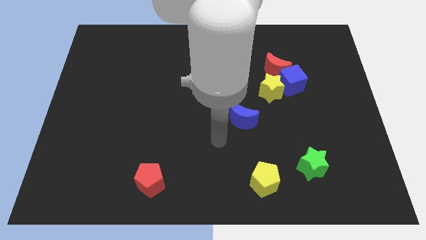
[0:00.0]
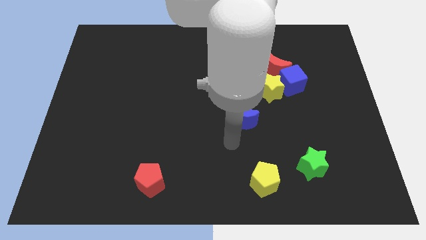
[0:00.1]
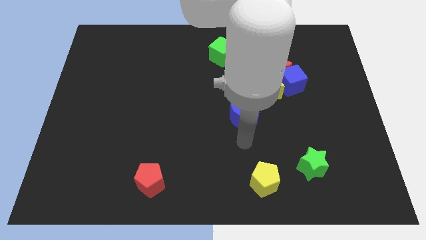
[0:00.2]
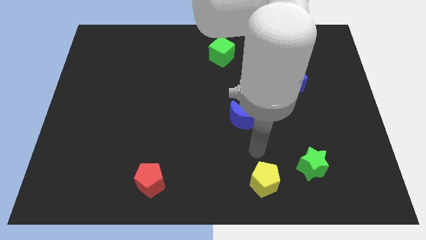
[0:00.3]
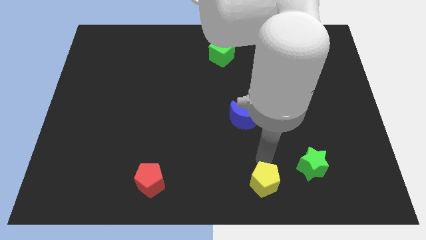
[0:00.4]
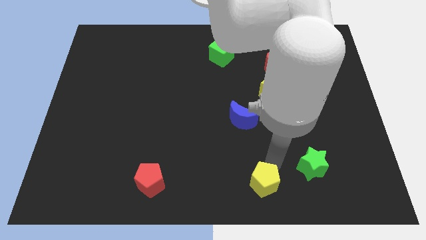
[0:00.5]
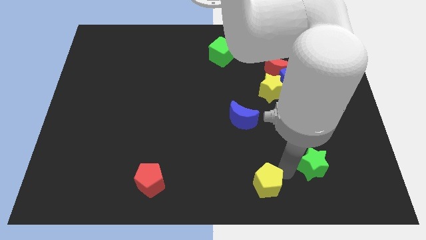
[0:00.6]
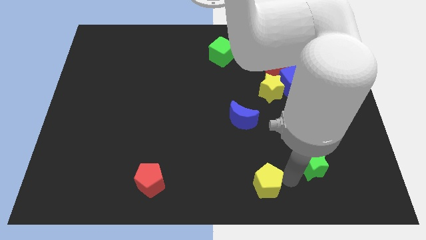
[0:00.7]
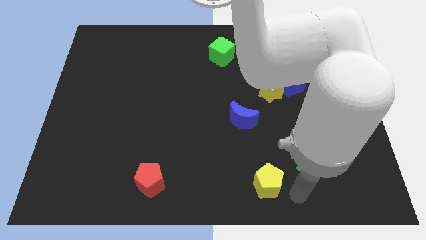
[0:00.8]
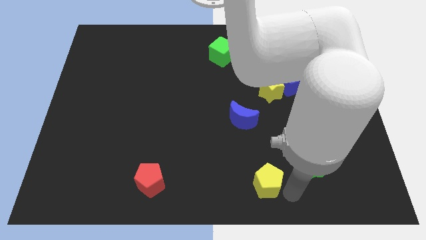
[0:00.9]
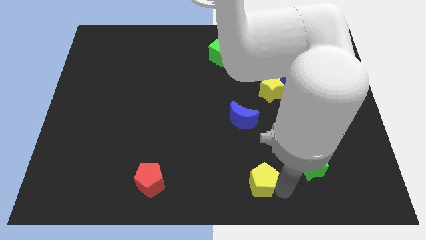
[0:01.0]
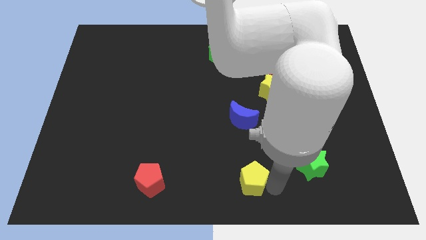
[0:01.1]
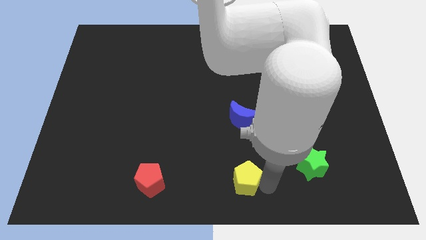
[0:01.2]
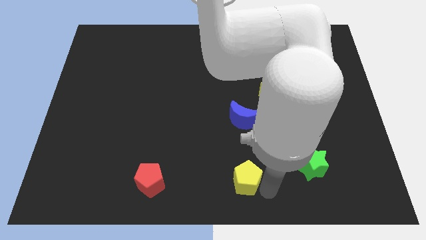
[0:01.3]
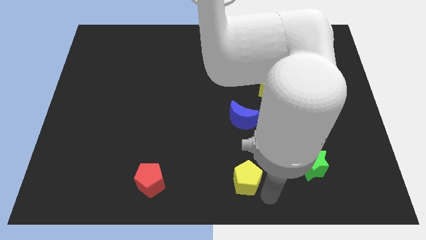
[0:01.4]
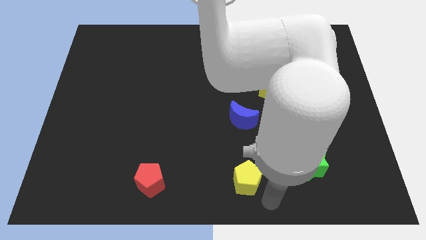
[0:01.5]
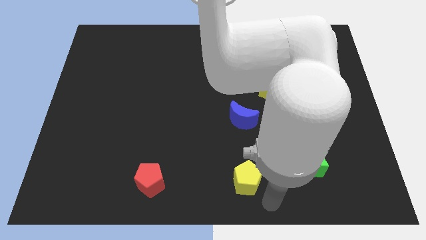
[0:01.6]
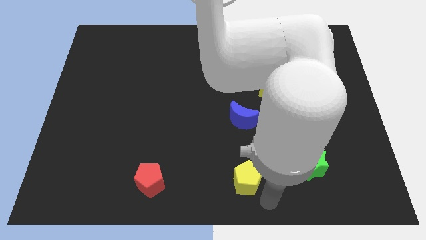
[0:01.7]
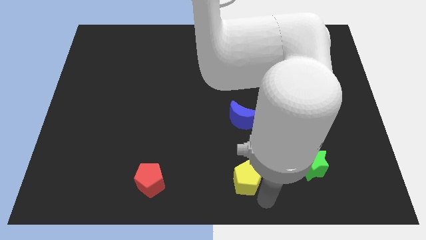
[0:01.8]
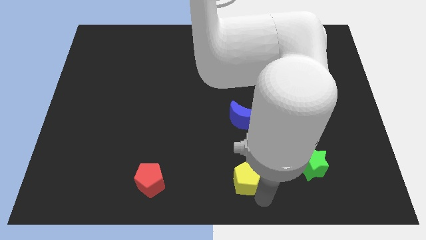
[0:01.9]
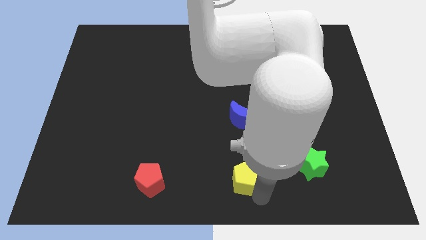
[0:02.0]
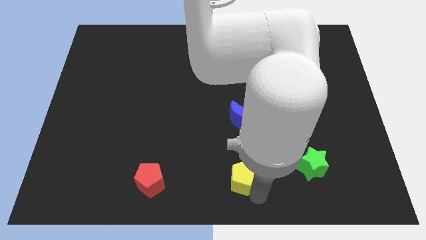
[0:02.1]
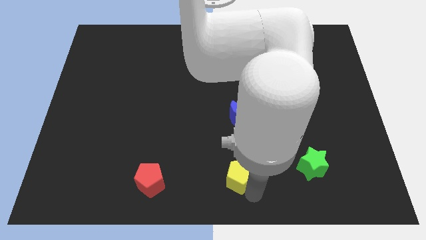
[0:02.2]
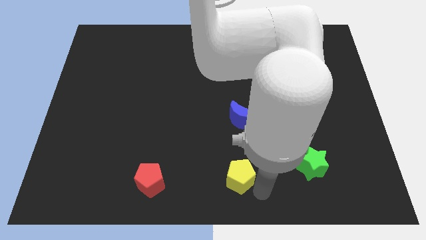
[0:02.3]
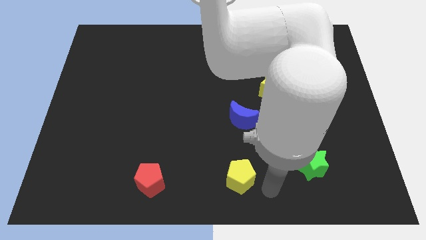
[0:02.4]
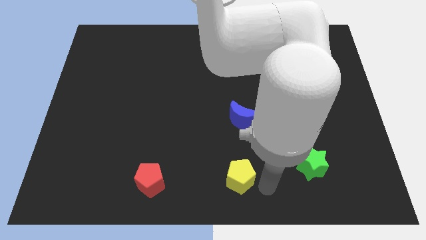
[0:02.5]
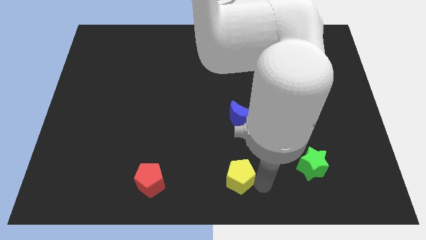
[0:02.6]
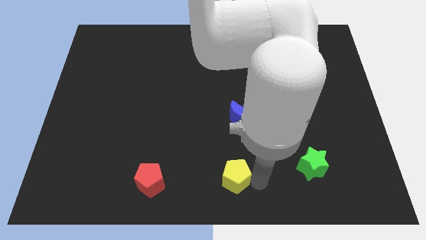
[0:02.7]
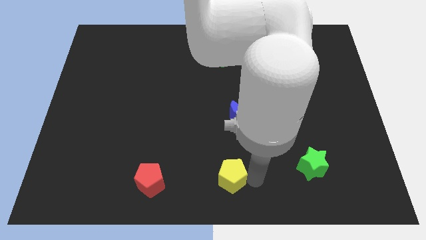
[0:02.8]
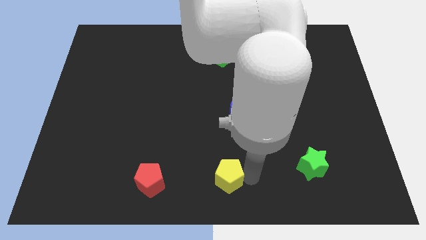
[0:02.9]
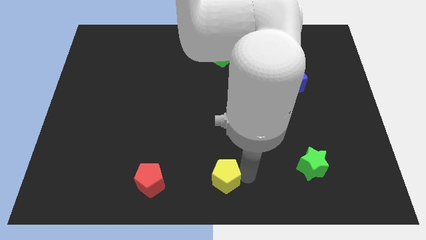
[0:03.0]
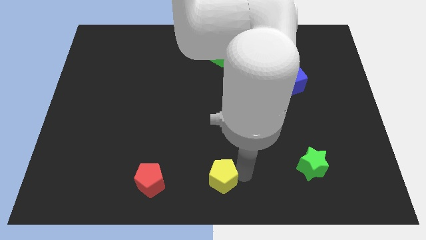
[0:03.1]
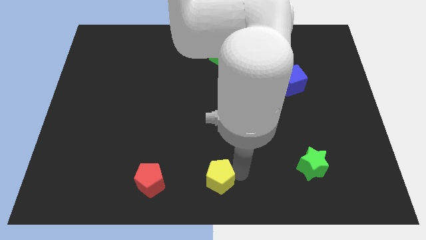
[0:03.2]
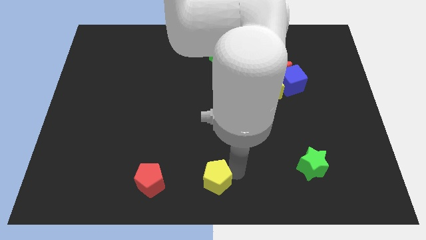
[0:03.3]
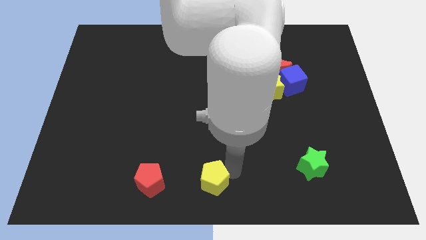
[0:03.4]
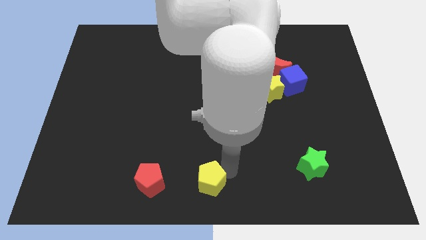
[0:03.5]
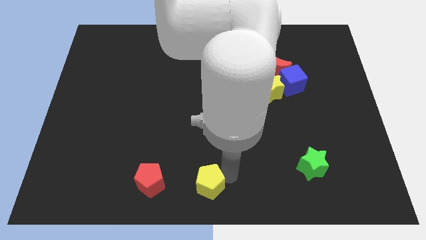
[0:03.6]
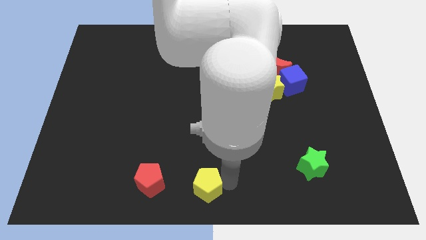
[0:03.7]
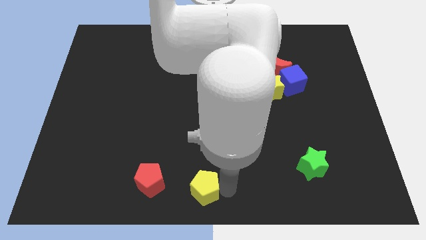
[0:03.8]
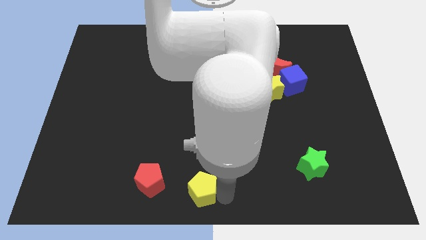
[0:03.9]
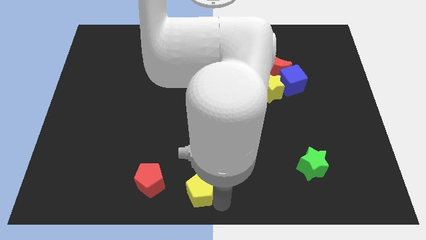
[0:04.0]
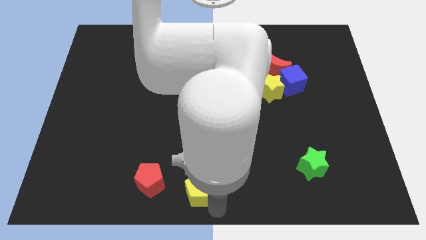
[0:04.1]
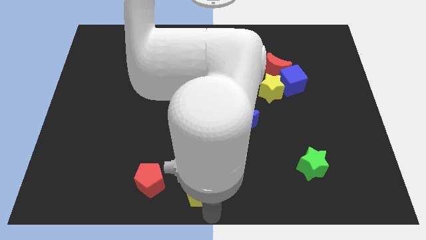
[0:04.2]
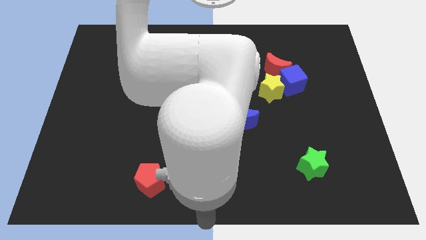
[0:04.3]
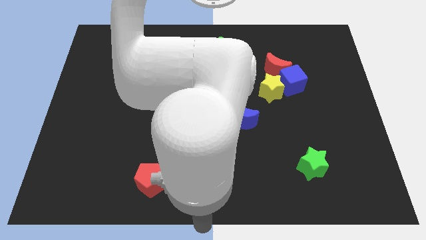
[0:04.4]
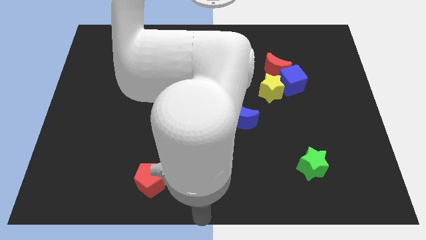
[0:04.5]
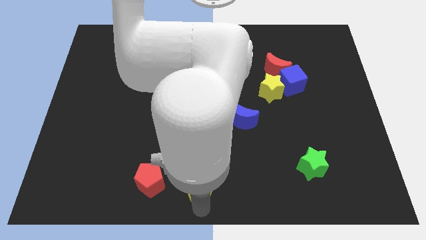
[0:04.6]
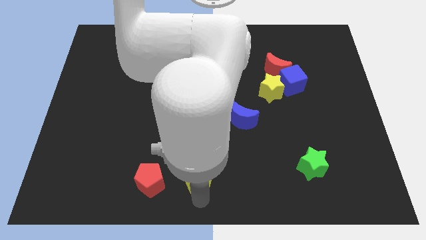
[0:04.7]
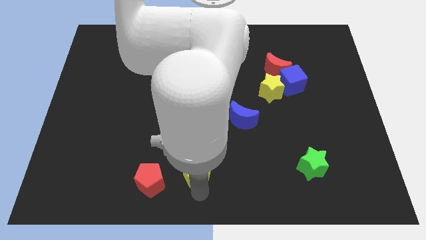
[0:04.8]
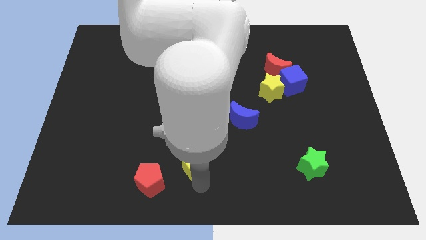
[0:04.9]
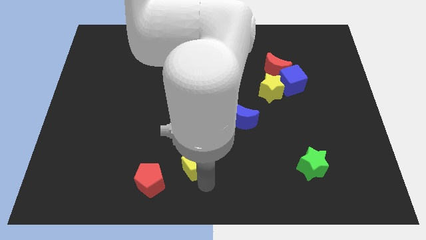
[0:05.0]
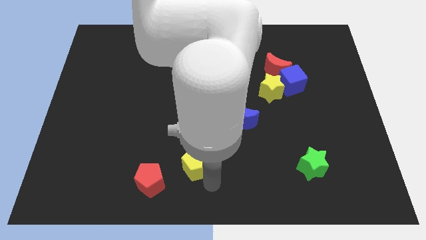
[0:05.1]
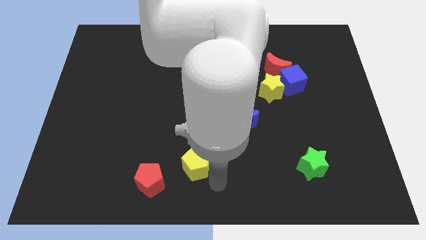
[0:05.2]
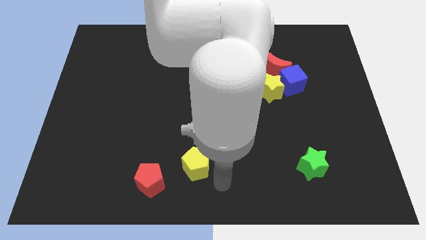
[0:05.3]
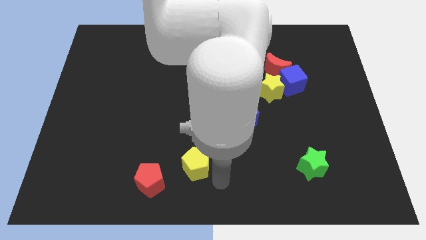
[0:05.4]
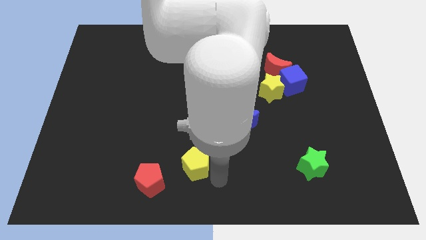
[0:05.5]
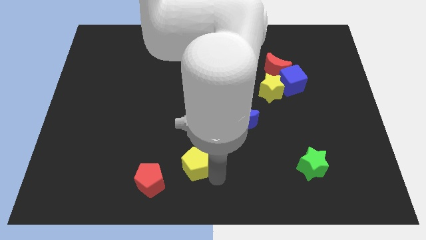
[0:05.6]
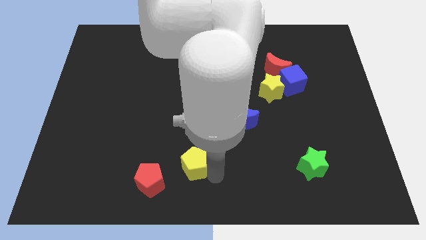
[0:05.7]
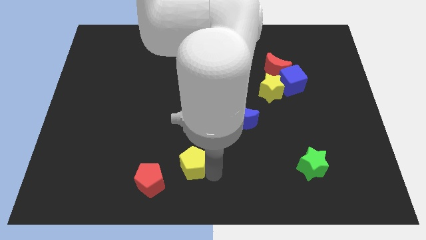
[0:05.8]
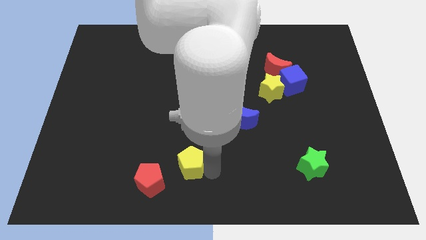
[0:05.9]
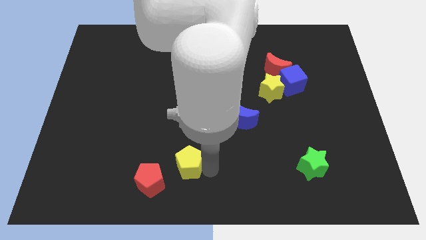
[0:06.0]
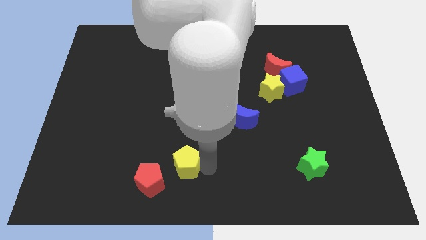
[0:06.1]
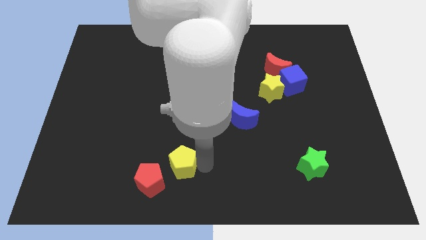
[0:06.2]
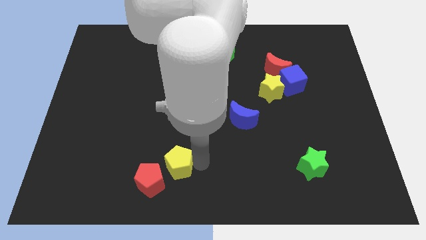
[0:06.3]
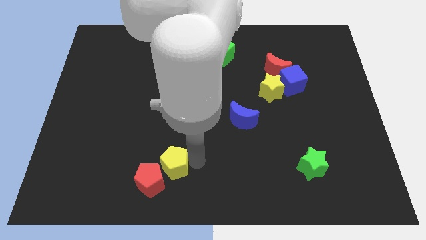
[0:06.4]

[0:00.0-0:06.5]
slide the yellow pentagon to the top of the red pentagon
